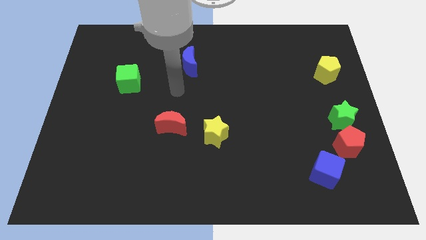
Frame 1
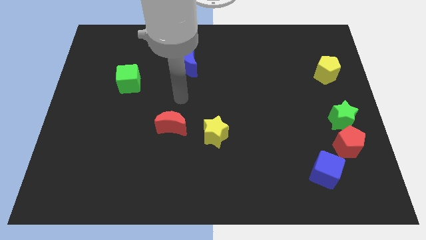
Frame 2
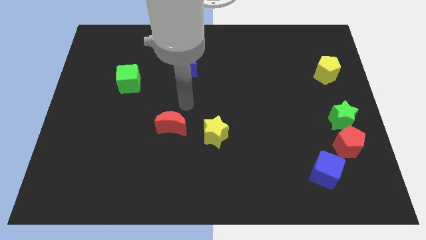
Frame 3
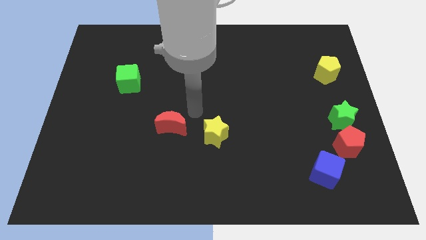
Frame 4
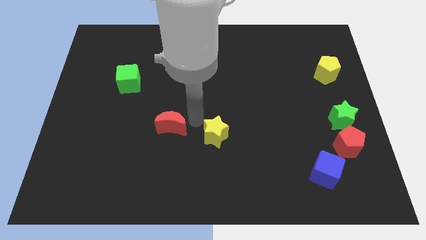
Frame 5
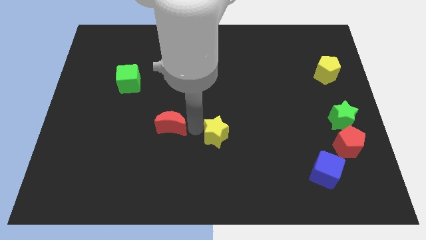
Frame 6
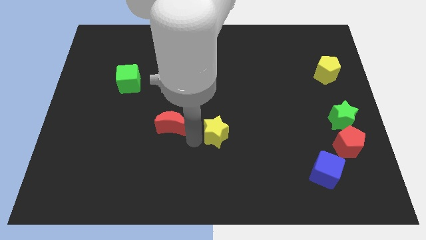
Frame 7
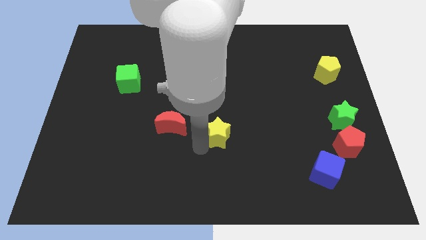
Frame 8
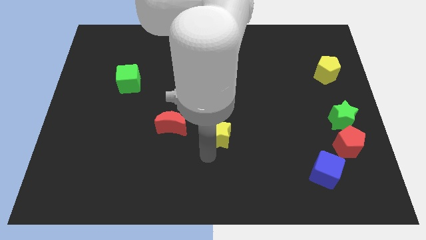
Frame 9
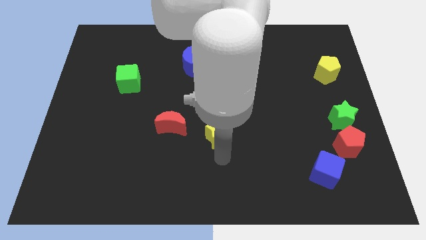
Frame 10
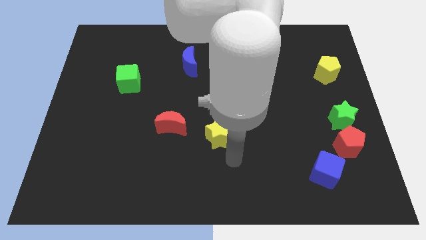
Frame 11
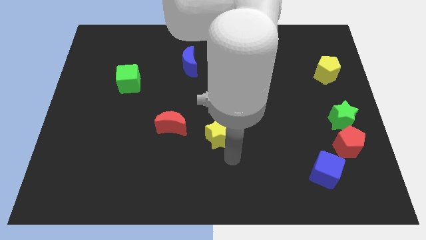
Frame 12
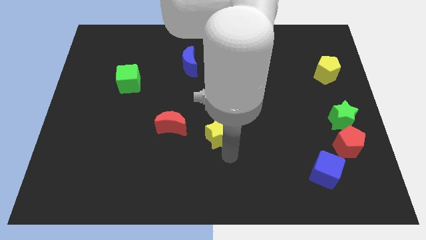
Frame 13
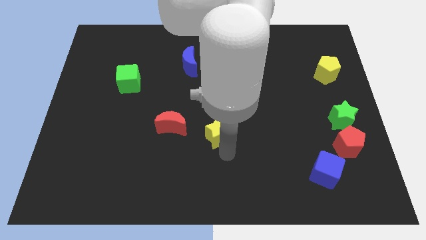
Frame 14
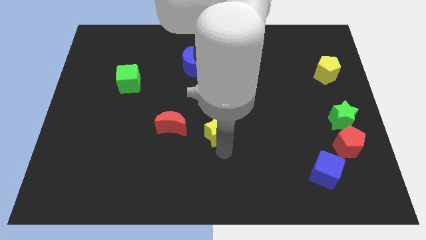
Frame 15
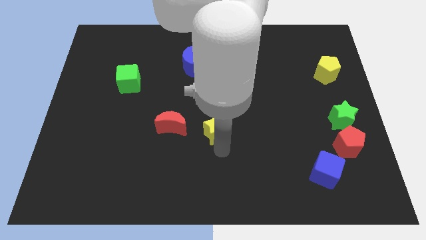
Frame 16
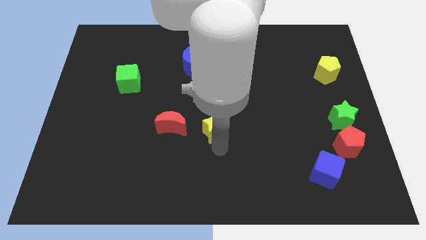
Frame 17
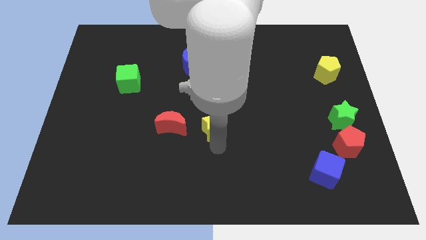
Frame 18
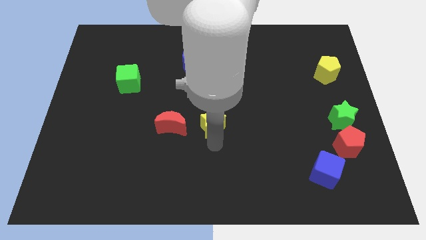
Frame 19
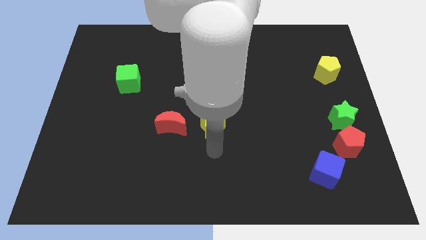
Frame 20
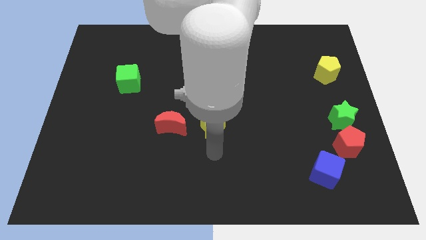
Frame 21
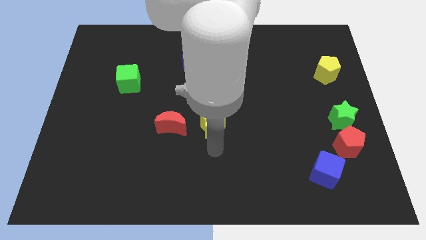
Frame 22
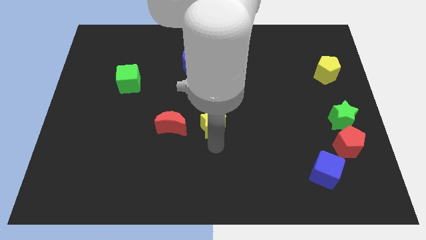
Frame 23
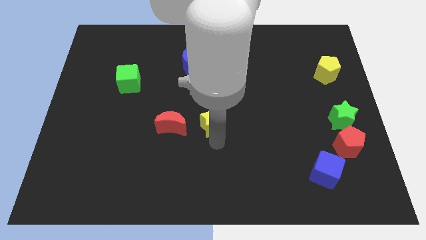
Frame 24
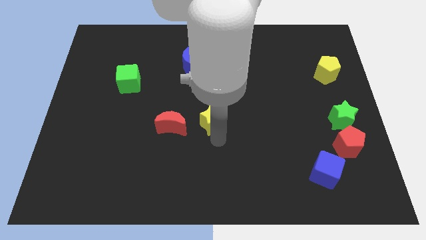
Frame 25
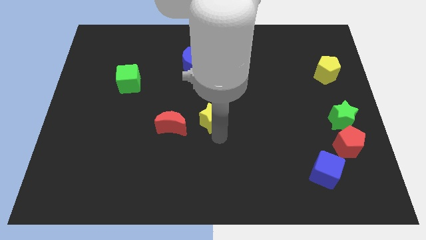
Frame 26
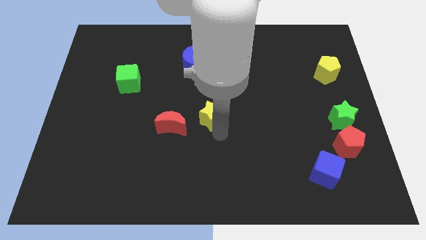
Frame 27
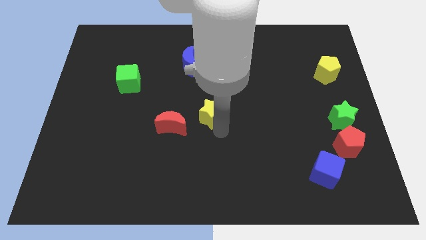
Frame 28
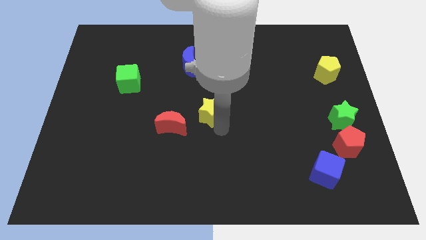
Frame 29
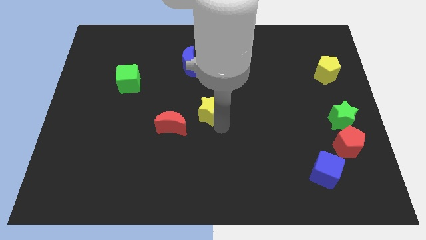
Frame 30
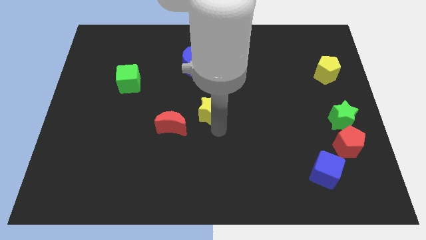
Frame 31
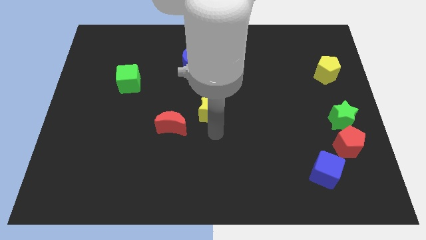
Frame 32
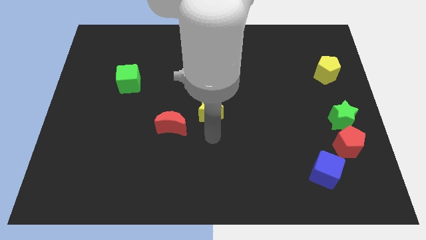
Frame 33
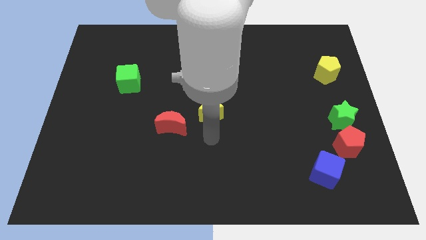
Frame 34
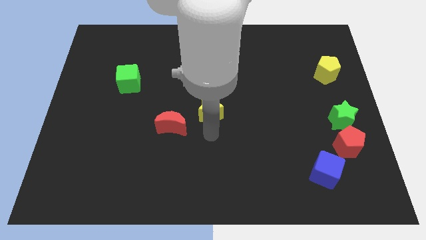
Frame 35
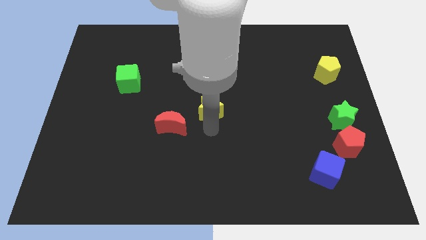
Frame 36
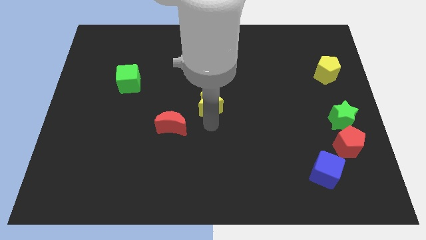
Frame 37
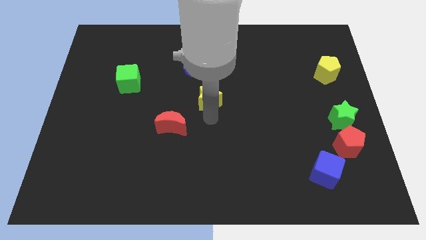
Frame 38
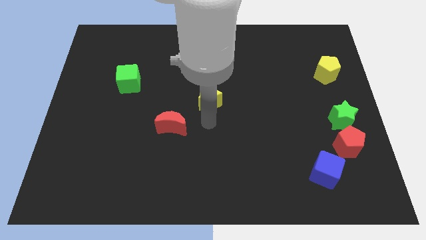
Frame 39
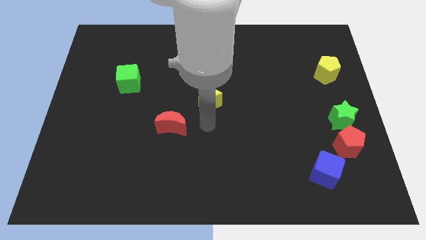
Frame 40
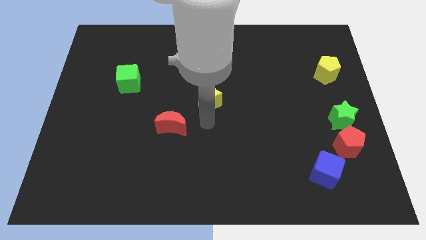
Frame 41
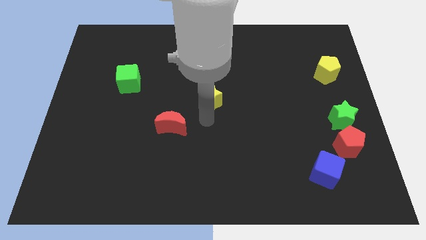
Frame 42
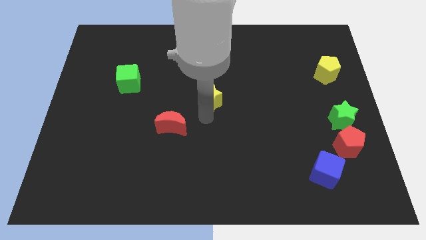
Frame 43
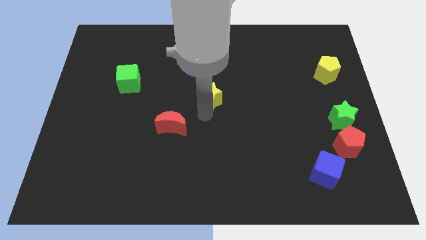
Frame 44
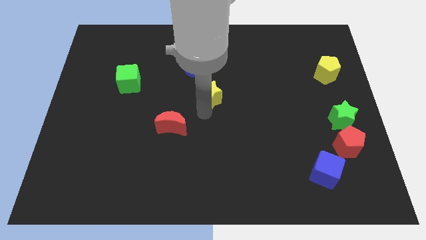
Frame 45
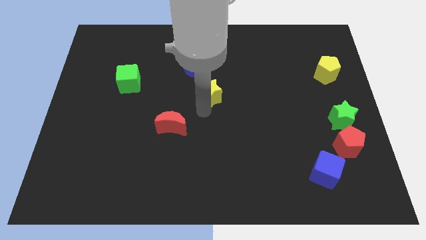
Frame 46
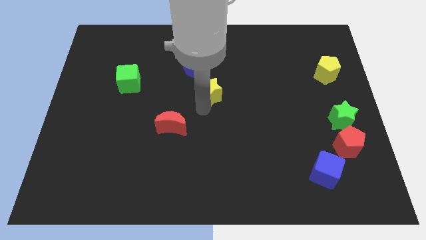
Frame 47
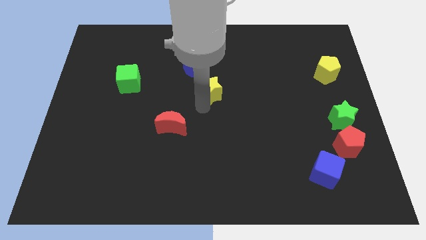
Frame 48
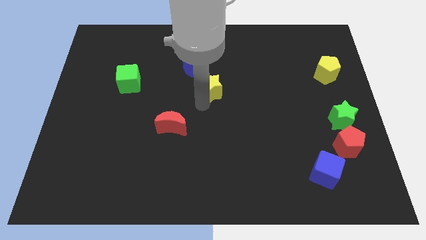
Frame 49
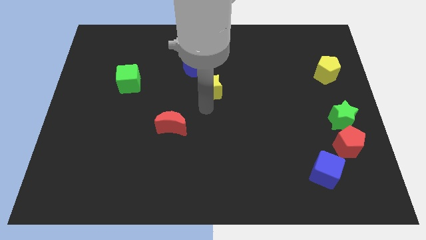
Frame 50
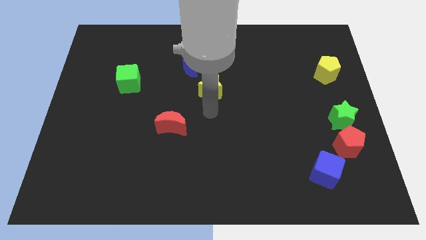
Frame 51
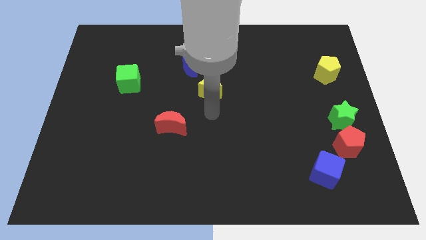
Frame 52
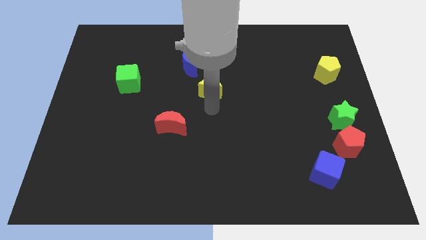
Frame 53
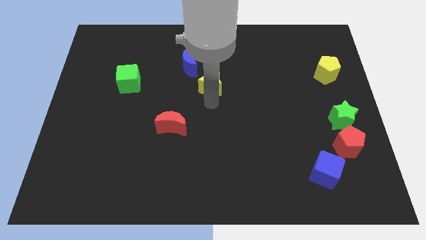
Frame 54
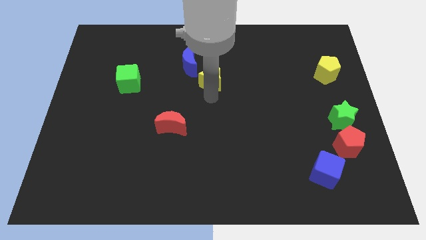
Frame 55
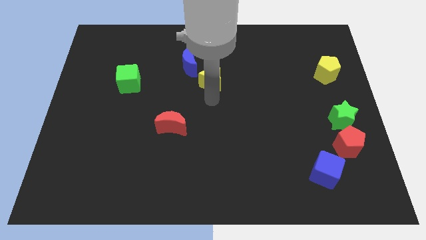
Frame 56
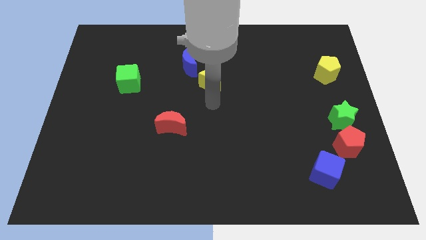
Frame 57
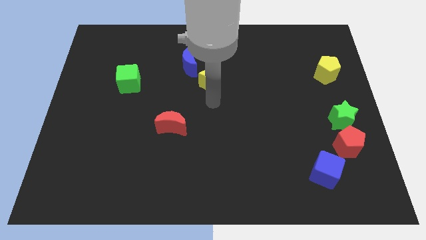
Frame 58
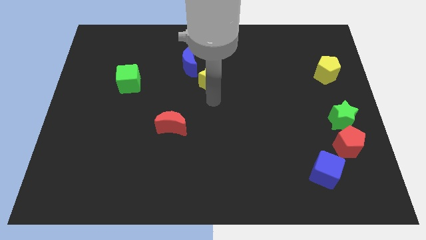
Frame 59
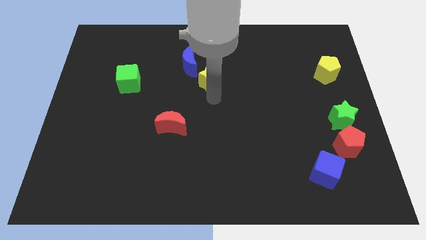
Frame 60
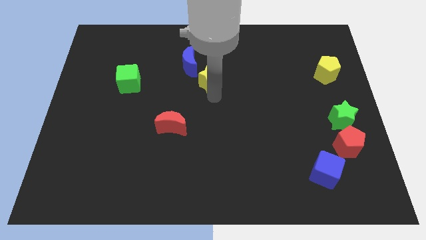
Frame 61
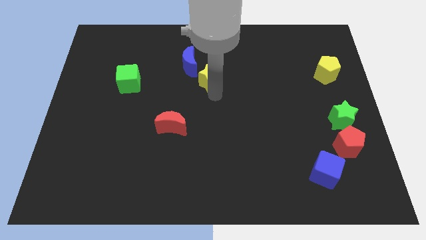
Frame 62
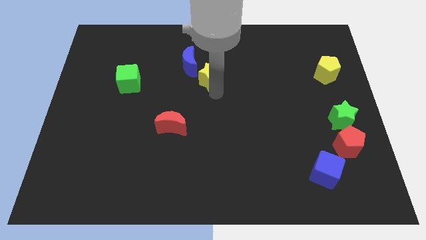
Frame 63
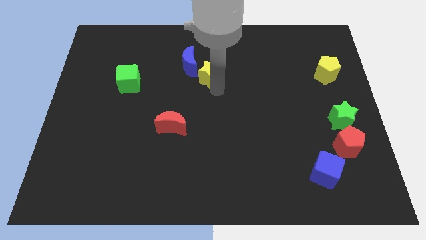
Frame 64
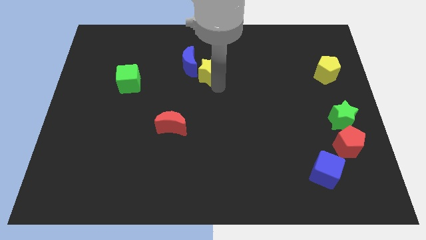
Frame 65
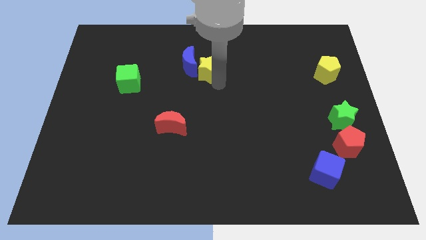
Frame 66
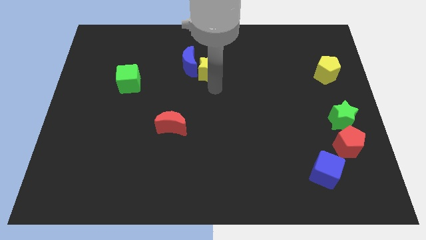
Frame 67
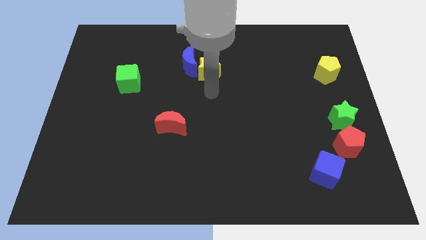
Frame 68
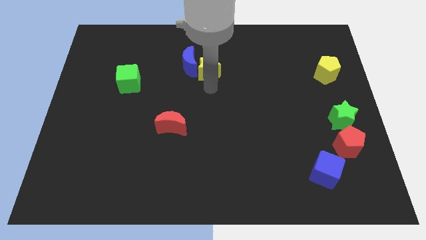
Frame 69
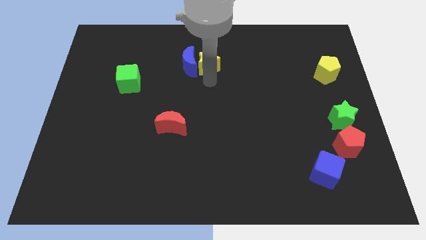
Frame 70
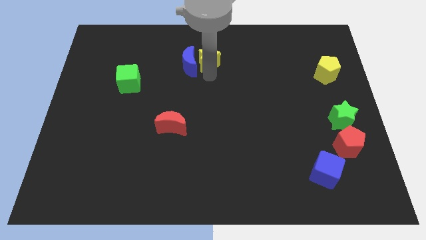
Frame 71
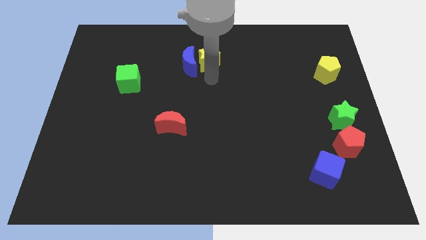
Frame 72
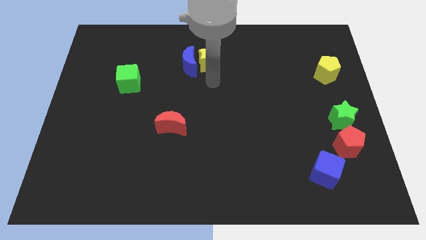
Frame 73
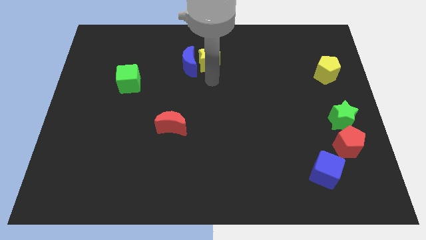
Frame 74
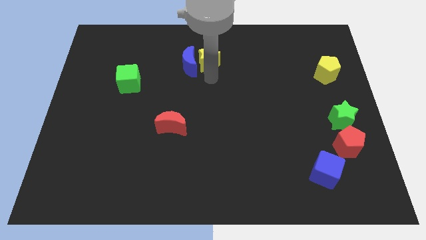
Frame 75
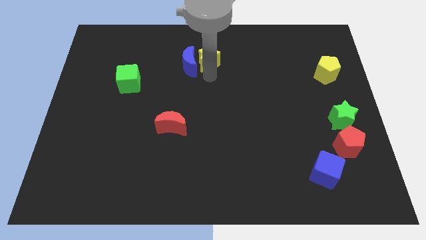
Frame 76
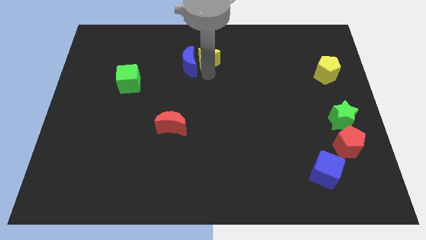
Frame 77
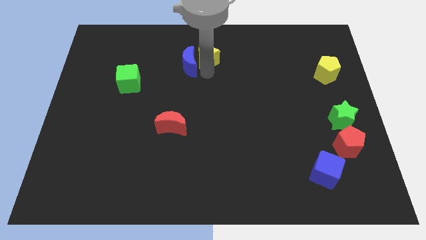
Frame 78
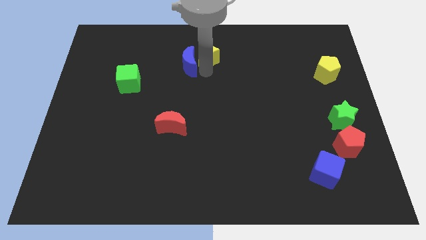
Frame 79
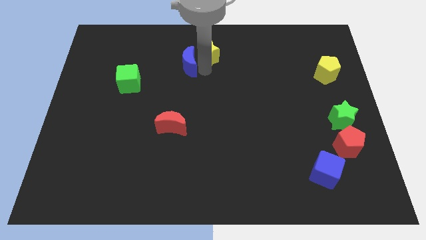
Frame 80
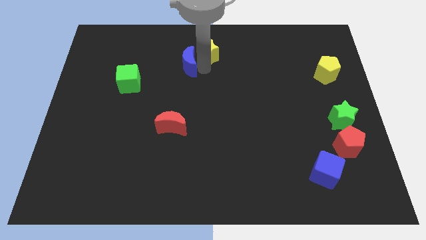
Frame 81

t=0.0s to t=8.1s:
push the yellow star to the top side
